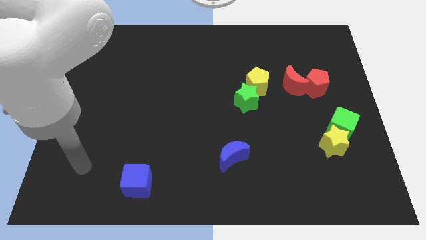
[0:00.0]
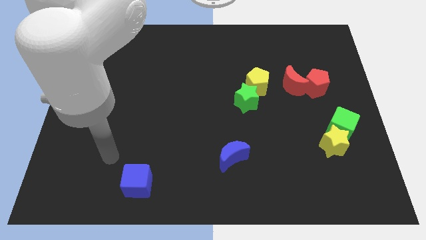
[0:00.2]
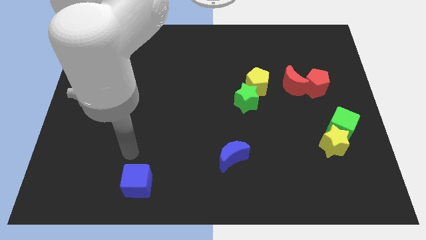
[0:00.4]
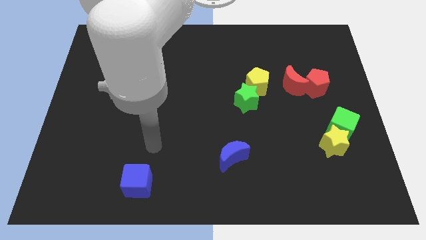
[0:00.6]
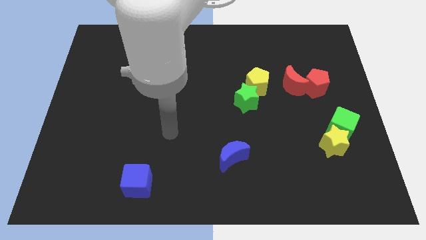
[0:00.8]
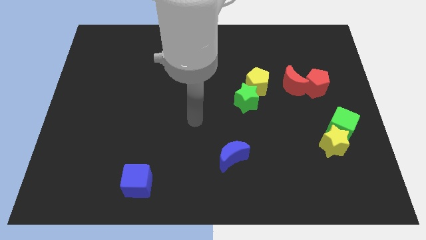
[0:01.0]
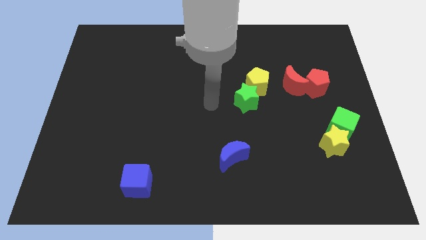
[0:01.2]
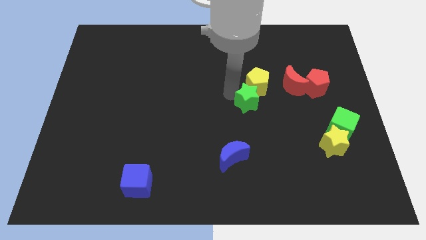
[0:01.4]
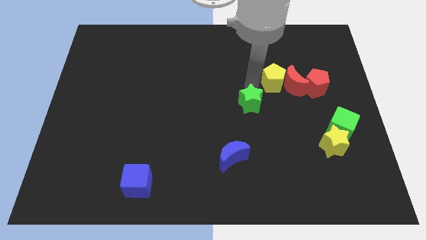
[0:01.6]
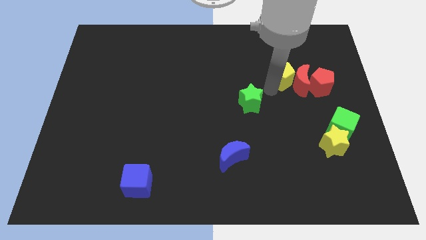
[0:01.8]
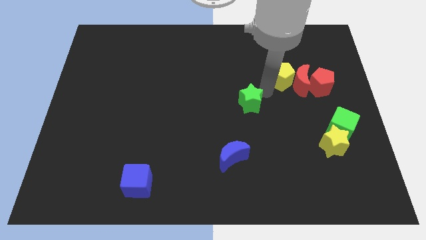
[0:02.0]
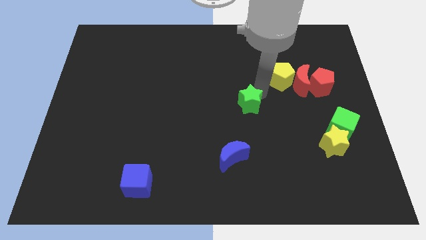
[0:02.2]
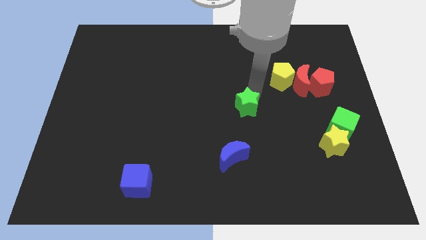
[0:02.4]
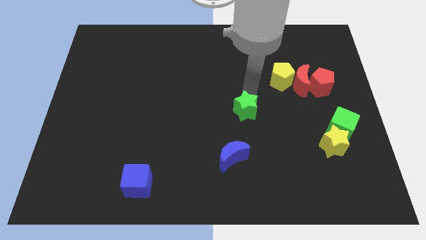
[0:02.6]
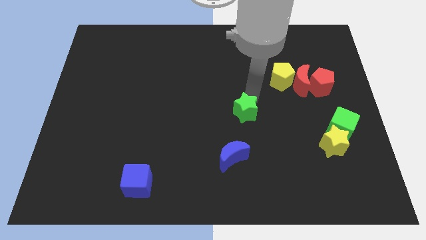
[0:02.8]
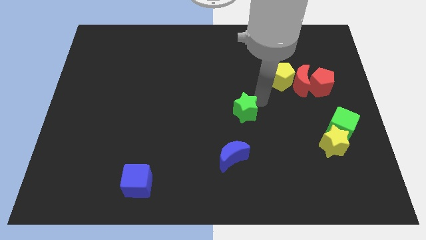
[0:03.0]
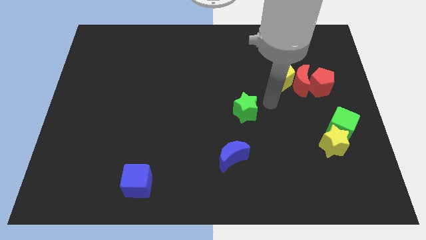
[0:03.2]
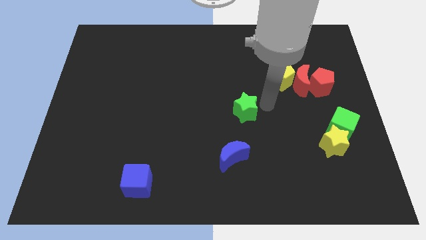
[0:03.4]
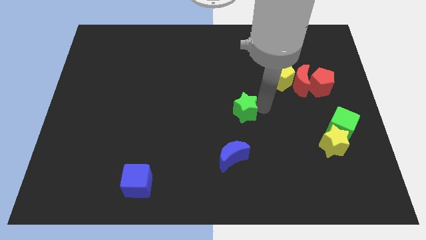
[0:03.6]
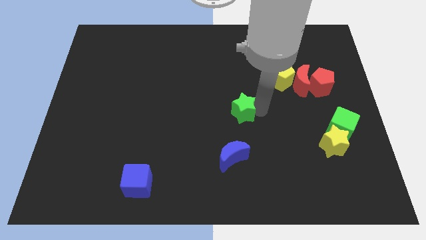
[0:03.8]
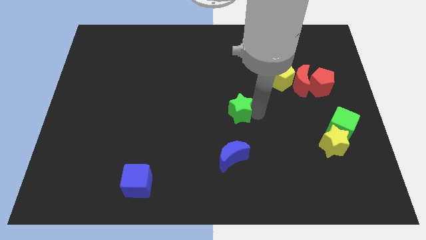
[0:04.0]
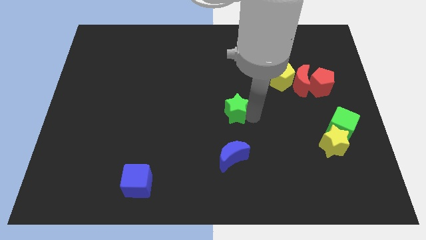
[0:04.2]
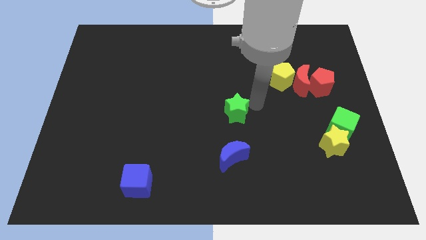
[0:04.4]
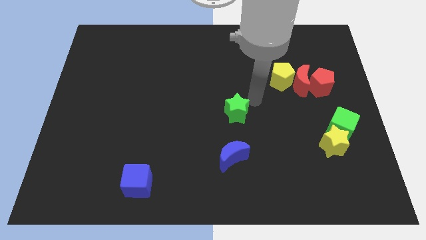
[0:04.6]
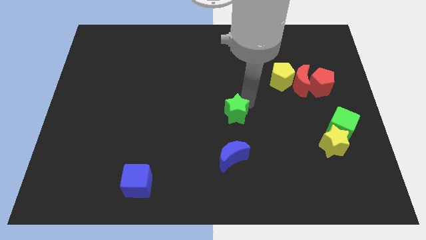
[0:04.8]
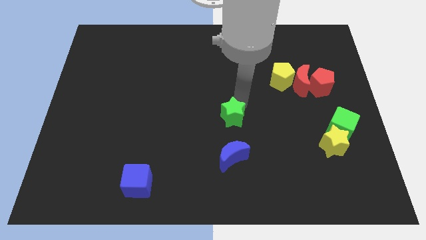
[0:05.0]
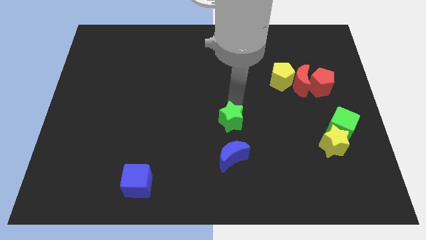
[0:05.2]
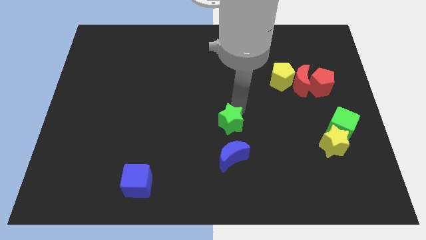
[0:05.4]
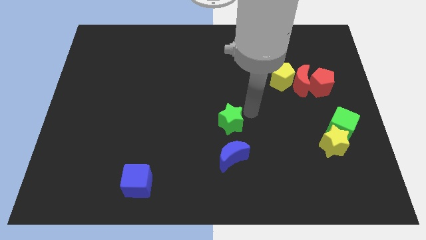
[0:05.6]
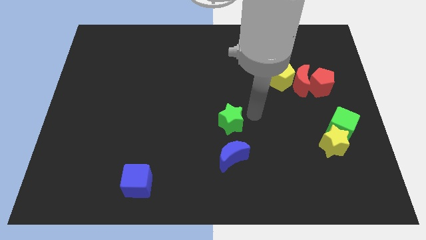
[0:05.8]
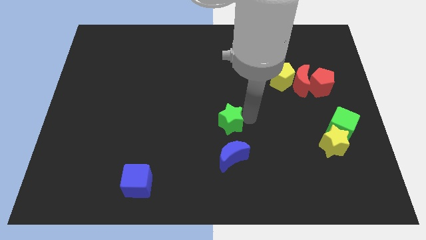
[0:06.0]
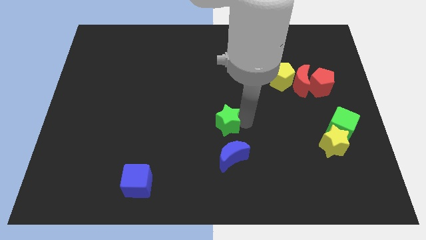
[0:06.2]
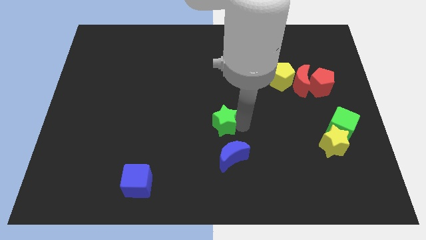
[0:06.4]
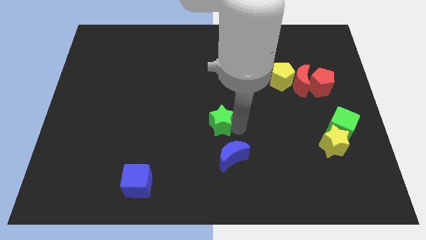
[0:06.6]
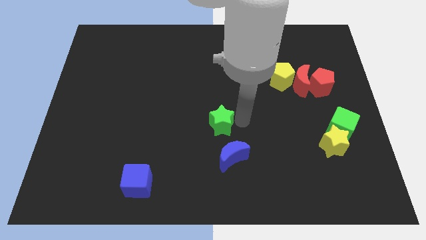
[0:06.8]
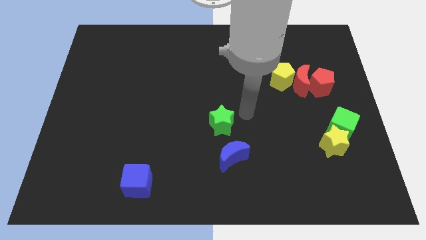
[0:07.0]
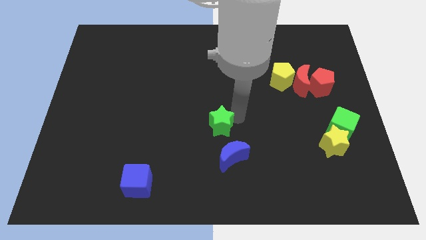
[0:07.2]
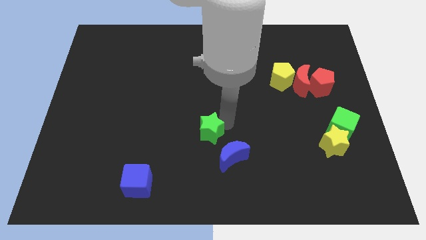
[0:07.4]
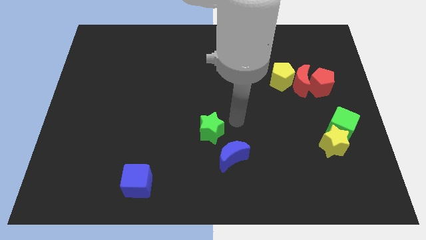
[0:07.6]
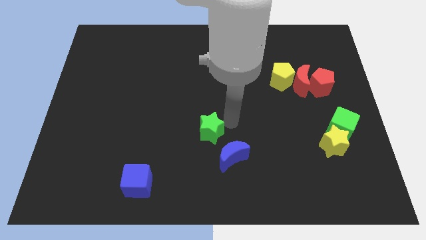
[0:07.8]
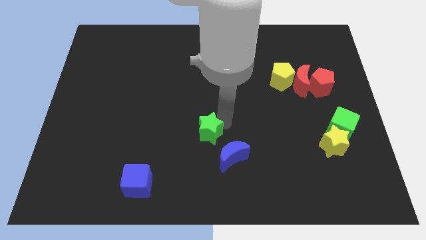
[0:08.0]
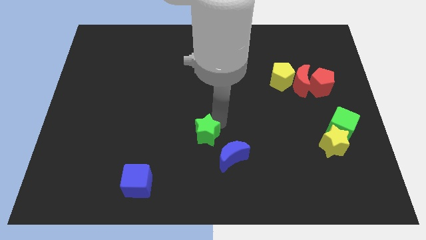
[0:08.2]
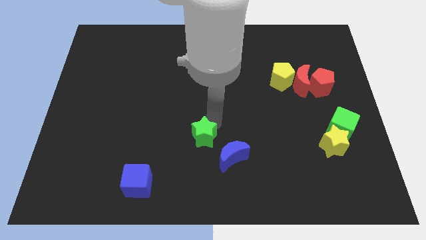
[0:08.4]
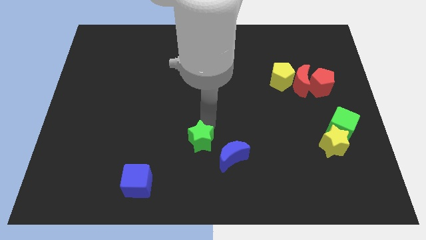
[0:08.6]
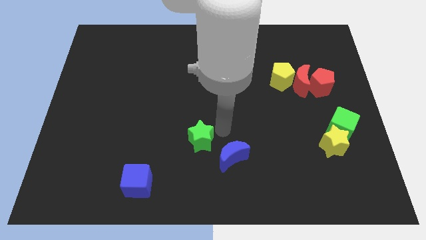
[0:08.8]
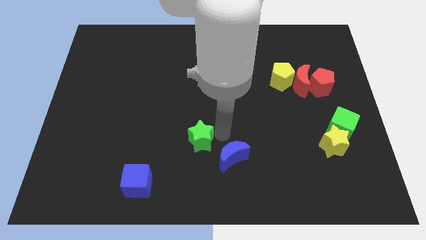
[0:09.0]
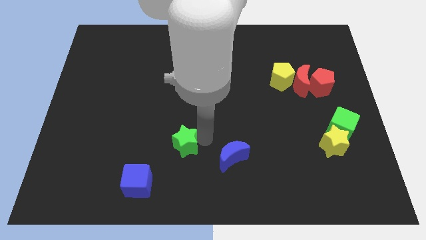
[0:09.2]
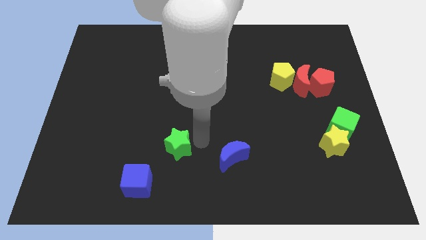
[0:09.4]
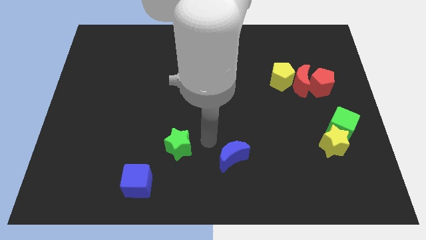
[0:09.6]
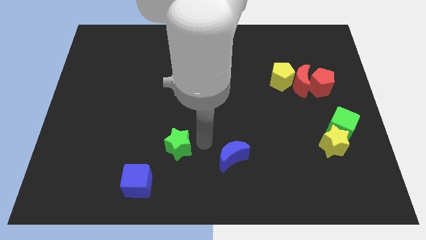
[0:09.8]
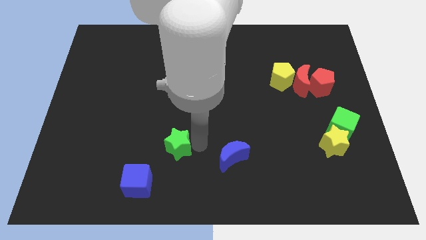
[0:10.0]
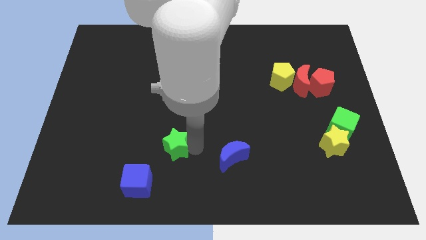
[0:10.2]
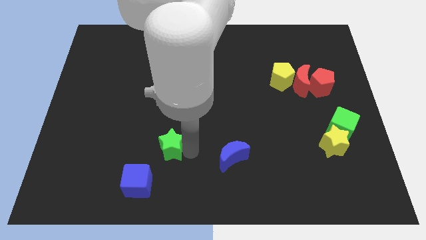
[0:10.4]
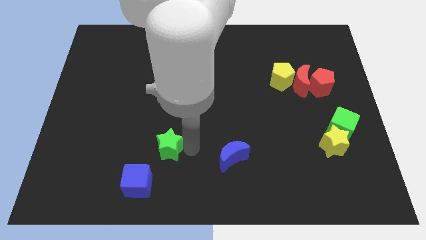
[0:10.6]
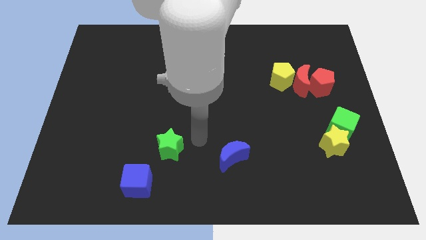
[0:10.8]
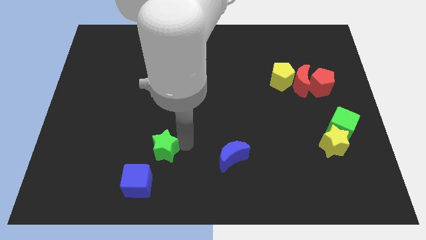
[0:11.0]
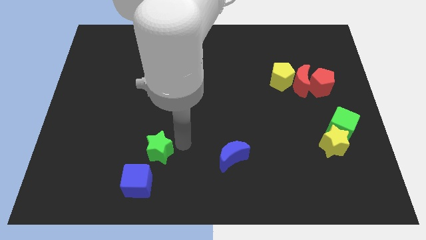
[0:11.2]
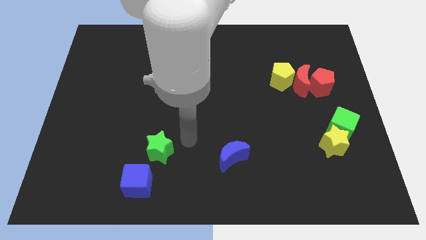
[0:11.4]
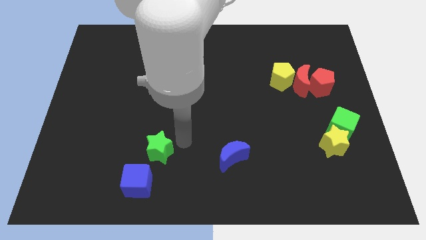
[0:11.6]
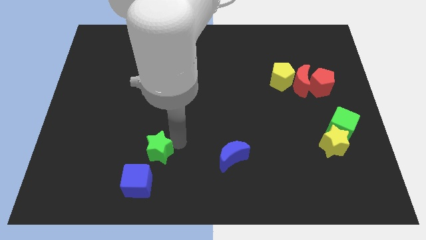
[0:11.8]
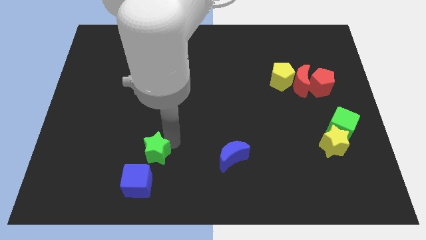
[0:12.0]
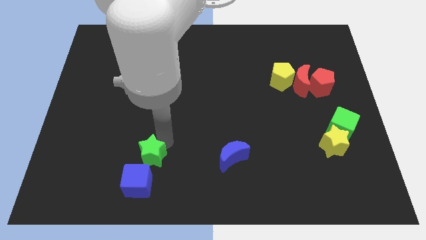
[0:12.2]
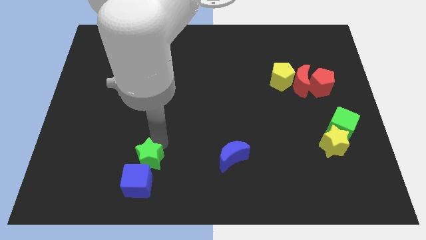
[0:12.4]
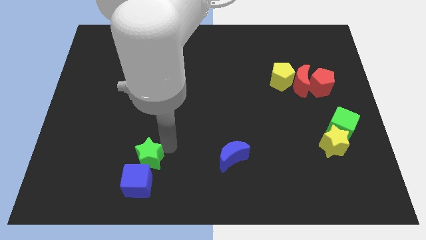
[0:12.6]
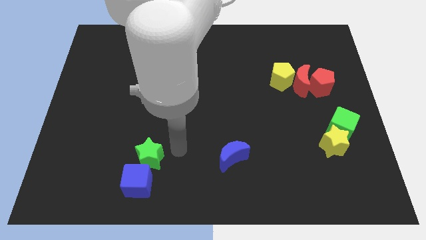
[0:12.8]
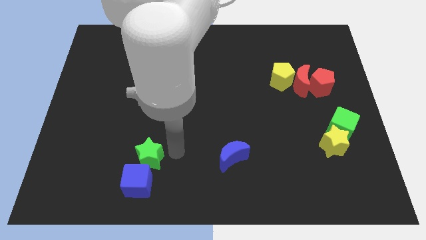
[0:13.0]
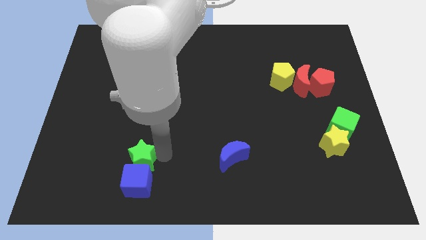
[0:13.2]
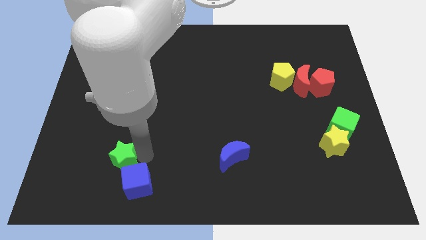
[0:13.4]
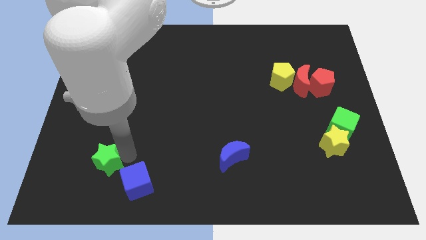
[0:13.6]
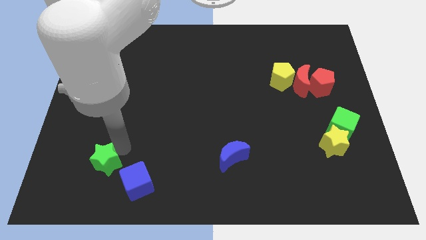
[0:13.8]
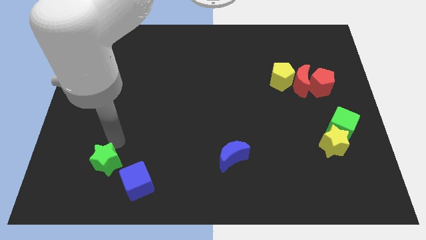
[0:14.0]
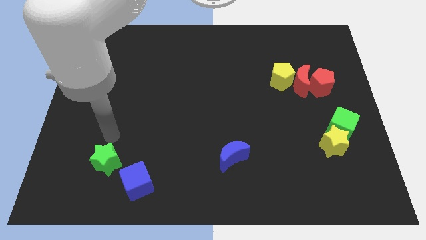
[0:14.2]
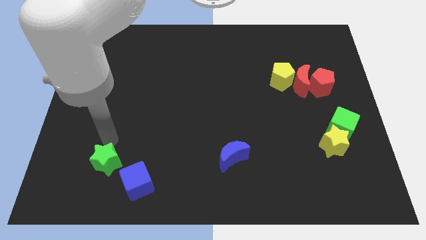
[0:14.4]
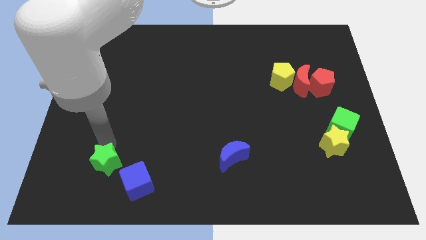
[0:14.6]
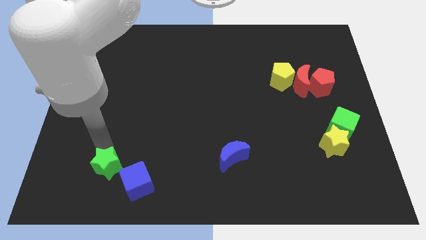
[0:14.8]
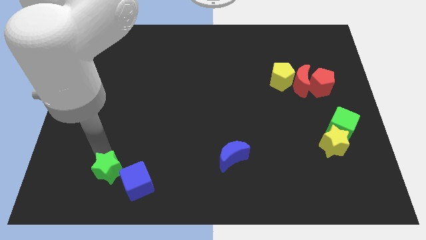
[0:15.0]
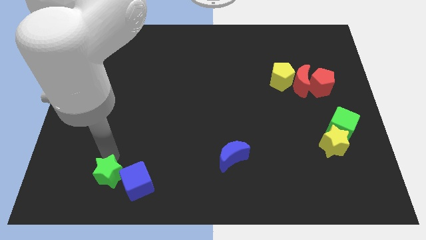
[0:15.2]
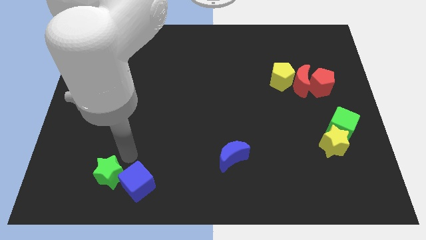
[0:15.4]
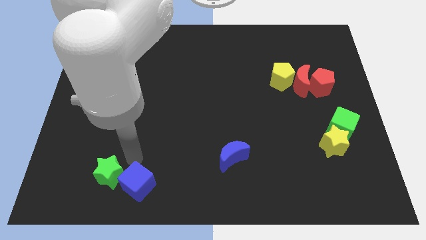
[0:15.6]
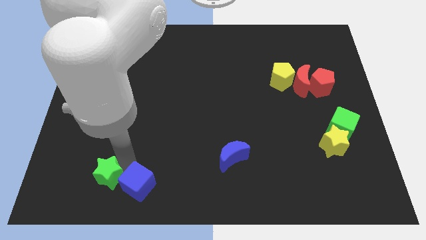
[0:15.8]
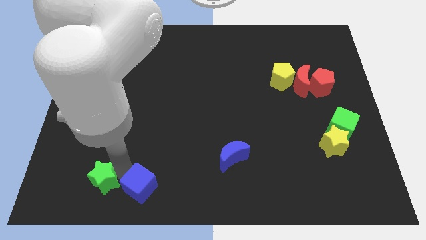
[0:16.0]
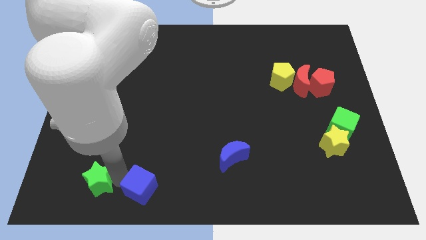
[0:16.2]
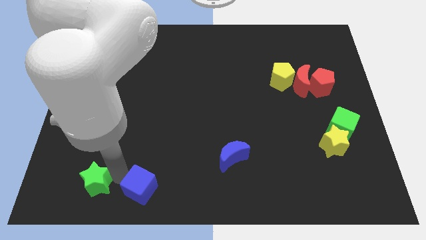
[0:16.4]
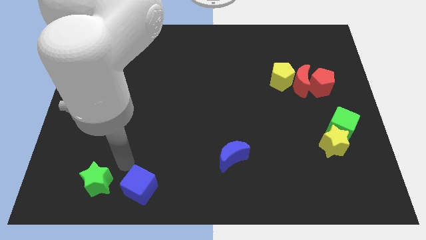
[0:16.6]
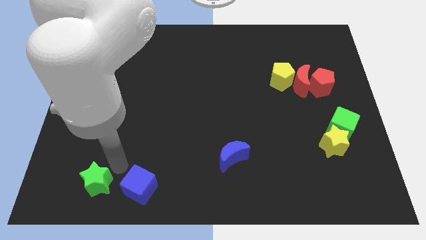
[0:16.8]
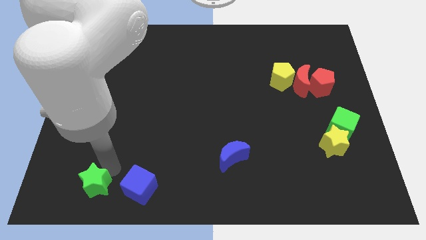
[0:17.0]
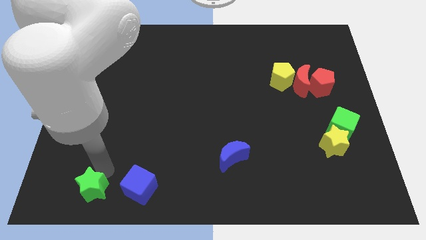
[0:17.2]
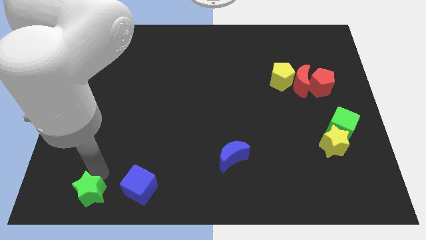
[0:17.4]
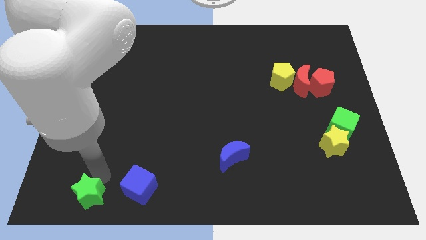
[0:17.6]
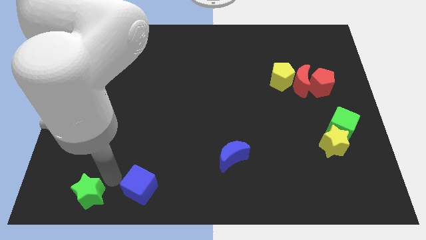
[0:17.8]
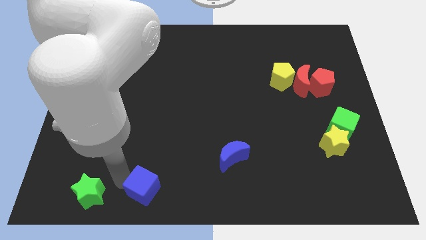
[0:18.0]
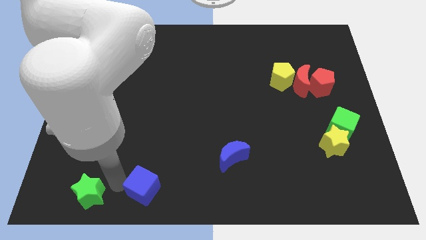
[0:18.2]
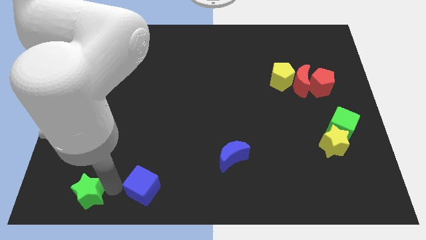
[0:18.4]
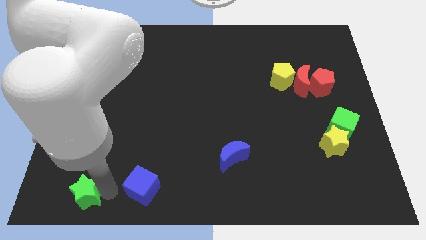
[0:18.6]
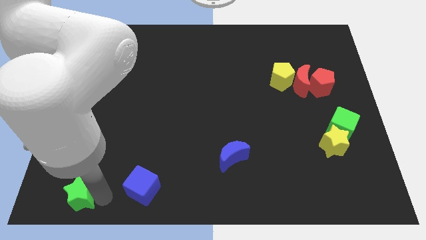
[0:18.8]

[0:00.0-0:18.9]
put the green star to the bottom left of the board
